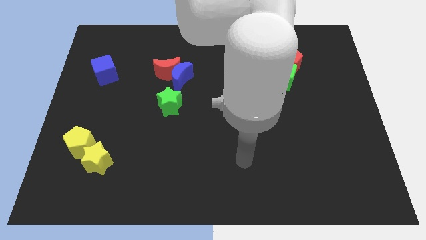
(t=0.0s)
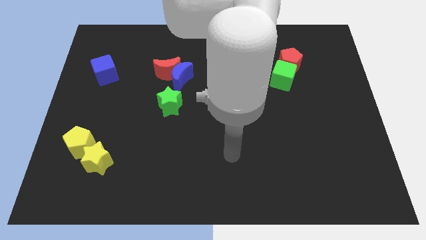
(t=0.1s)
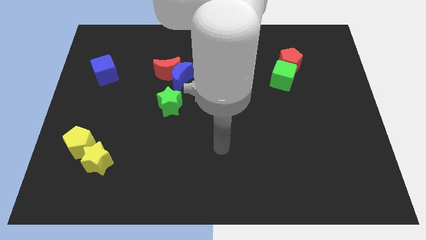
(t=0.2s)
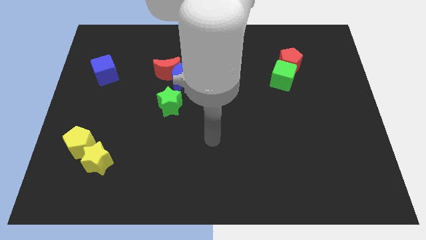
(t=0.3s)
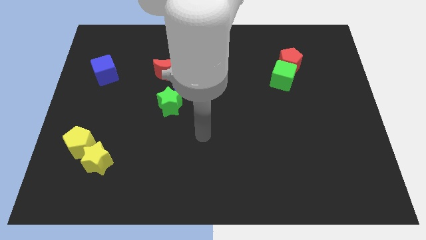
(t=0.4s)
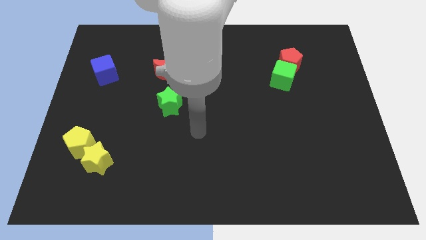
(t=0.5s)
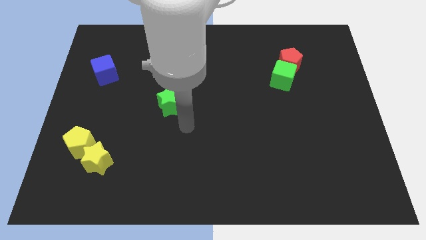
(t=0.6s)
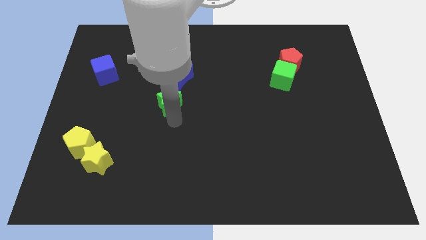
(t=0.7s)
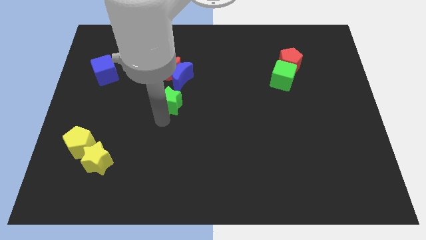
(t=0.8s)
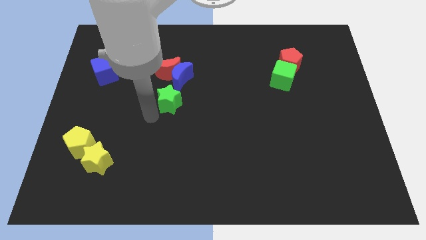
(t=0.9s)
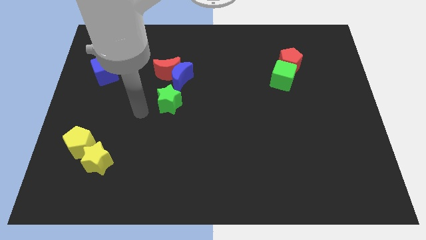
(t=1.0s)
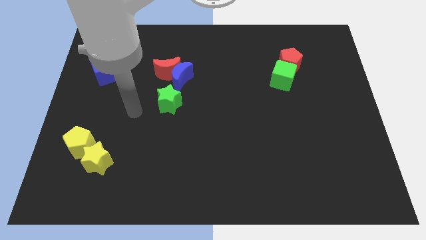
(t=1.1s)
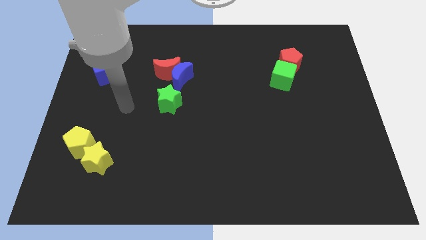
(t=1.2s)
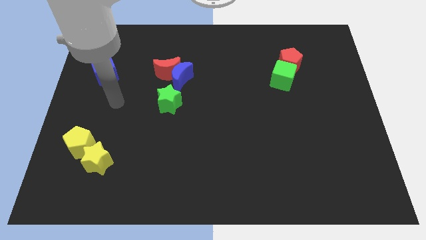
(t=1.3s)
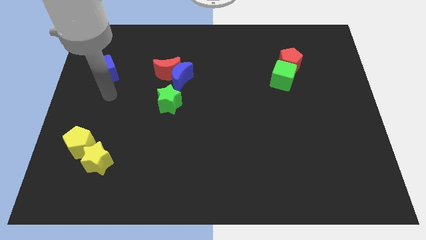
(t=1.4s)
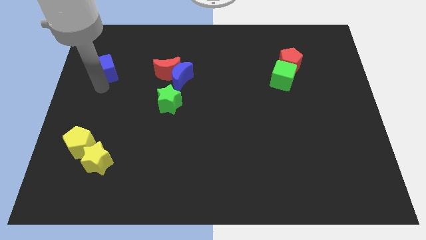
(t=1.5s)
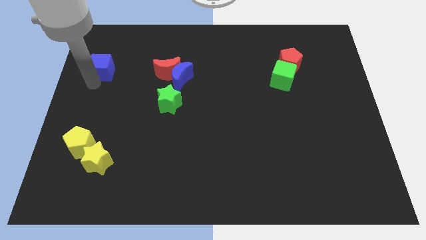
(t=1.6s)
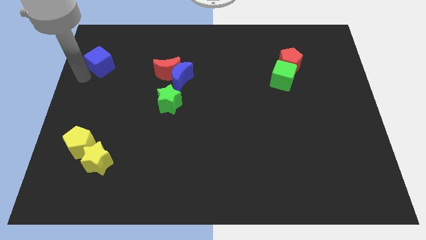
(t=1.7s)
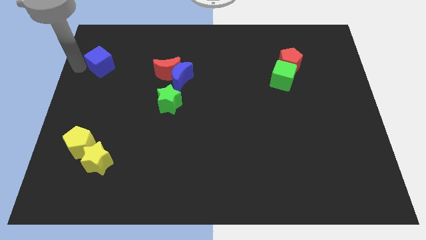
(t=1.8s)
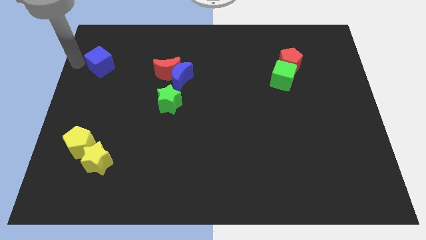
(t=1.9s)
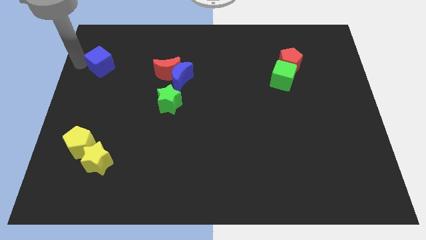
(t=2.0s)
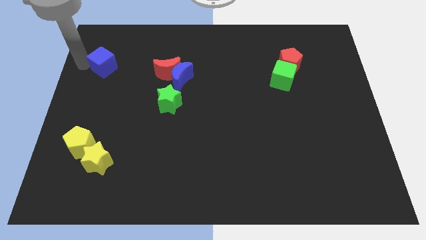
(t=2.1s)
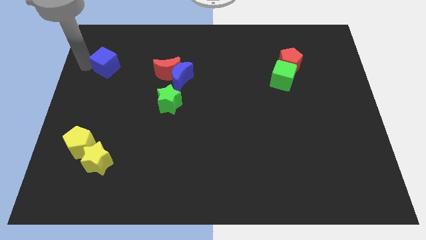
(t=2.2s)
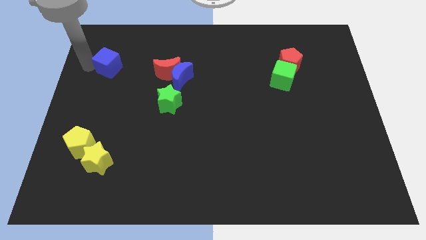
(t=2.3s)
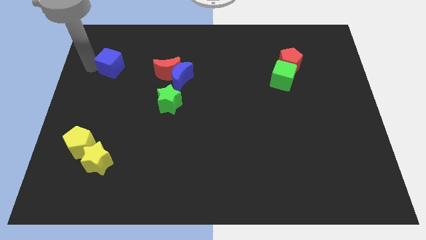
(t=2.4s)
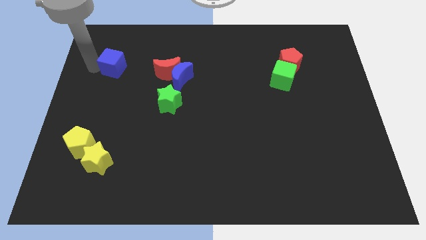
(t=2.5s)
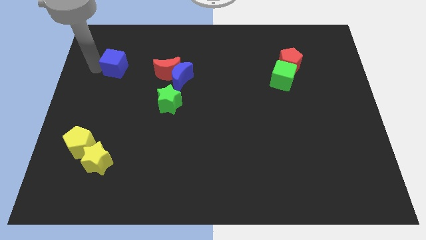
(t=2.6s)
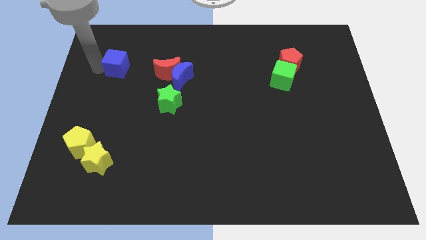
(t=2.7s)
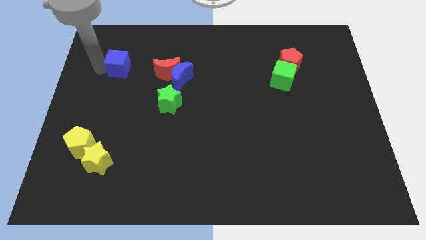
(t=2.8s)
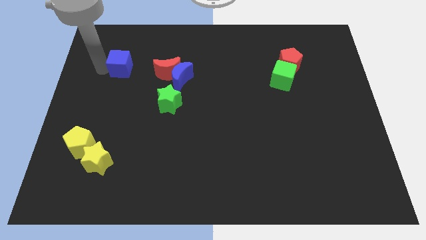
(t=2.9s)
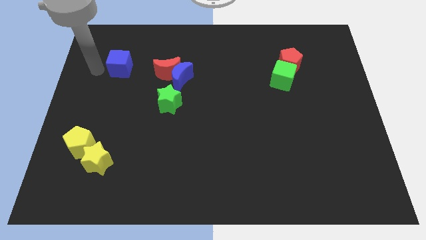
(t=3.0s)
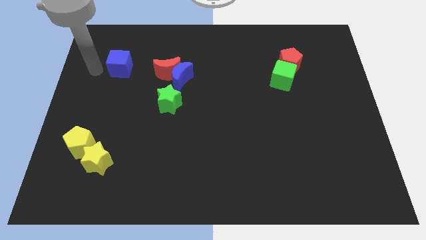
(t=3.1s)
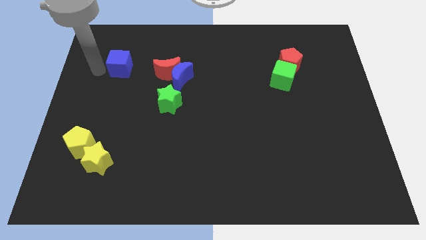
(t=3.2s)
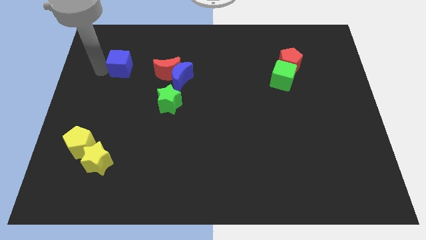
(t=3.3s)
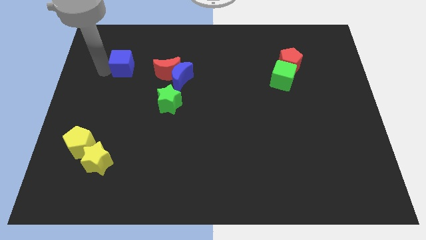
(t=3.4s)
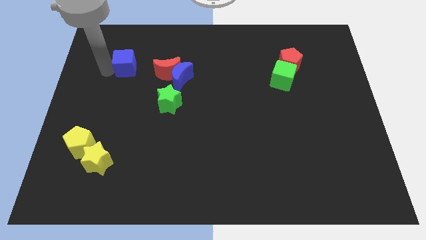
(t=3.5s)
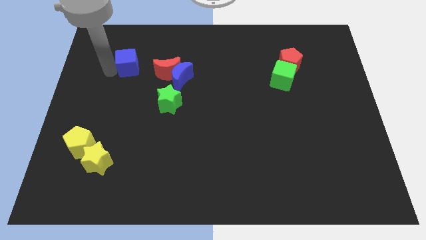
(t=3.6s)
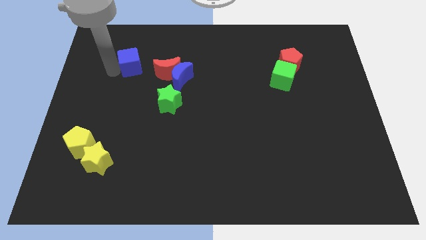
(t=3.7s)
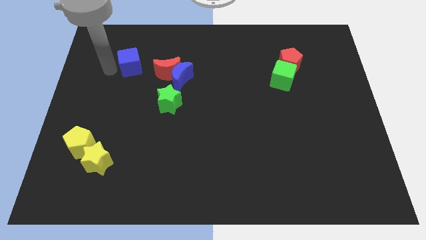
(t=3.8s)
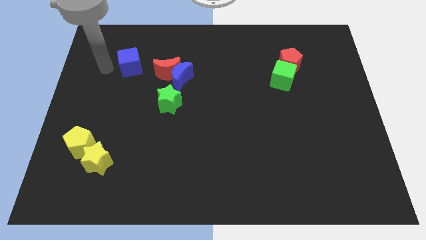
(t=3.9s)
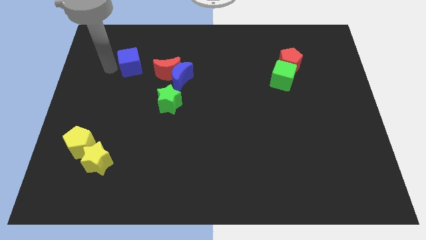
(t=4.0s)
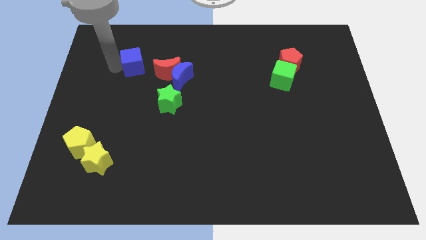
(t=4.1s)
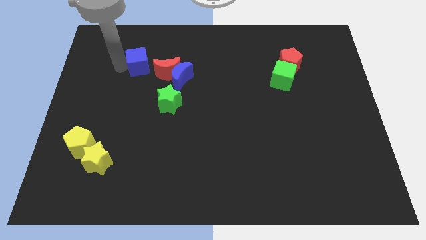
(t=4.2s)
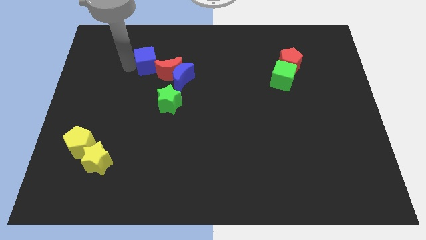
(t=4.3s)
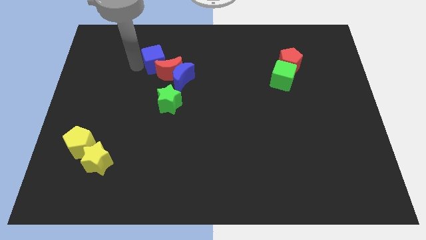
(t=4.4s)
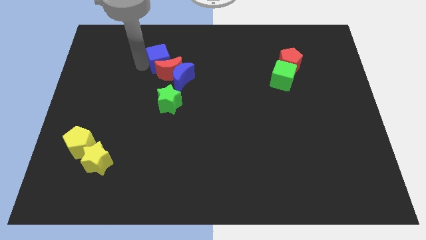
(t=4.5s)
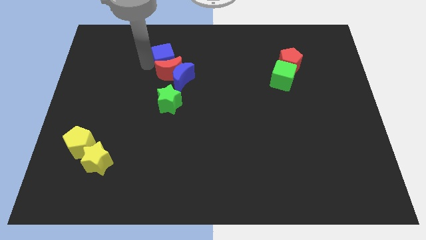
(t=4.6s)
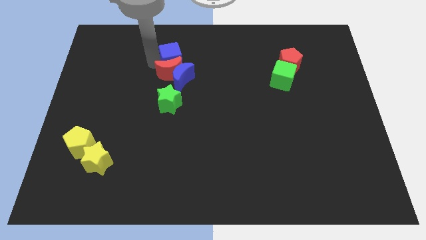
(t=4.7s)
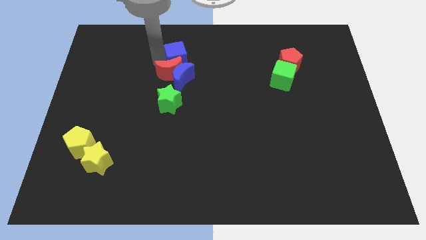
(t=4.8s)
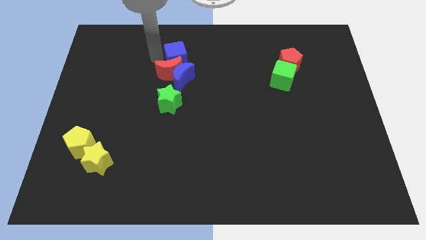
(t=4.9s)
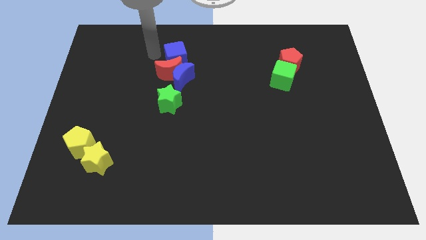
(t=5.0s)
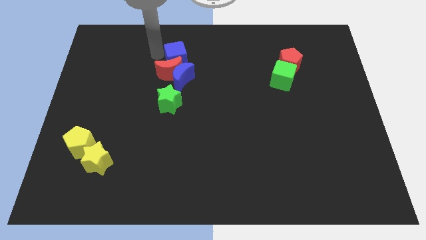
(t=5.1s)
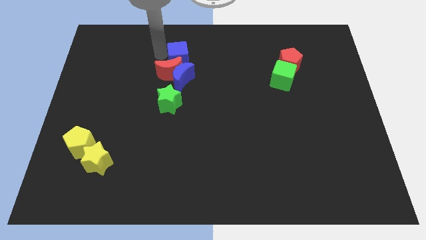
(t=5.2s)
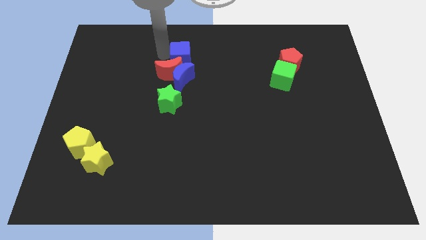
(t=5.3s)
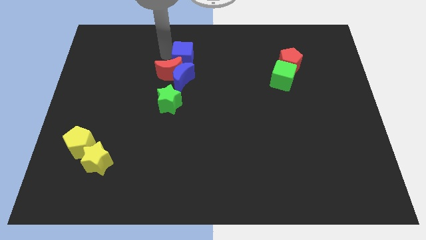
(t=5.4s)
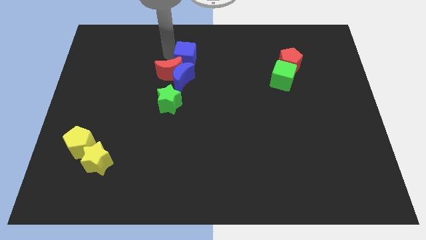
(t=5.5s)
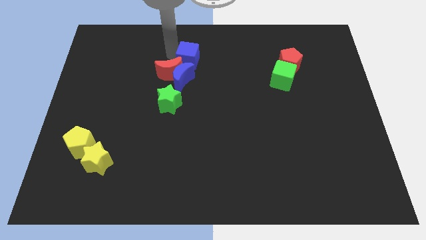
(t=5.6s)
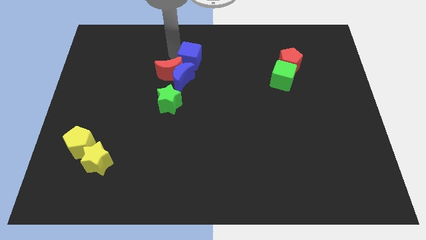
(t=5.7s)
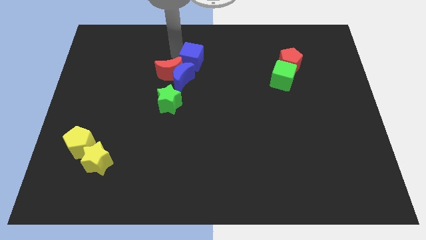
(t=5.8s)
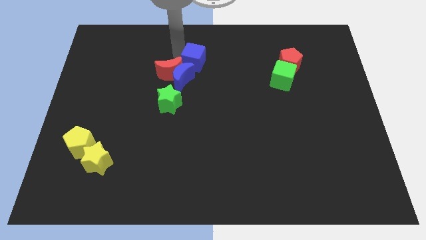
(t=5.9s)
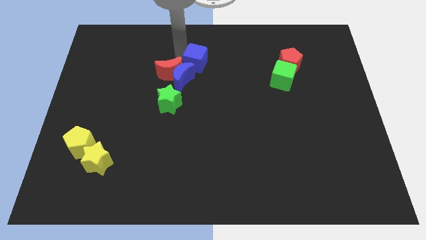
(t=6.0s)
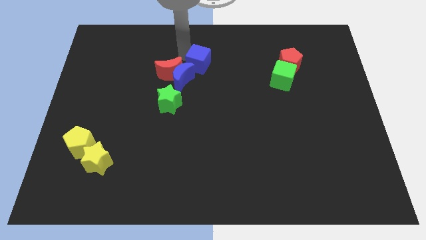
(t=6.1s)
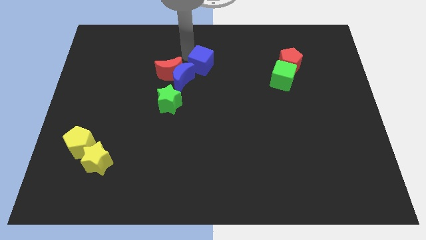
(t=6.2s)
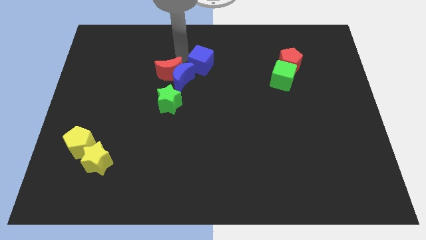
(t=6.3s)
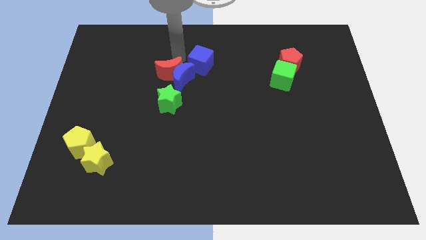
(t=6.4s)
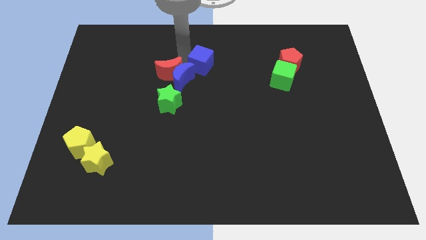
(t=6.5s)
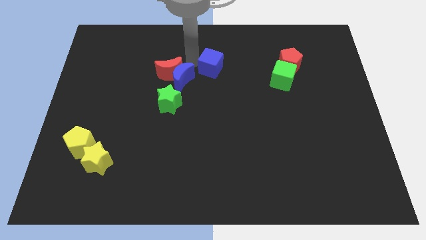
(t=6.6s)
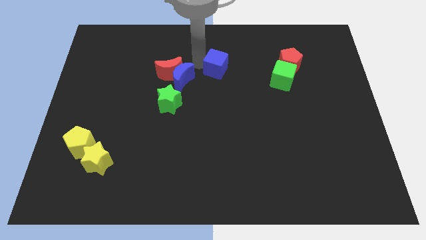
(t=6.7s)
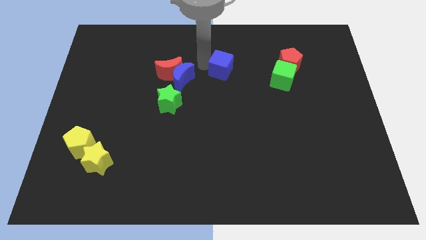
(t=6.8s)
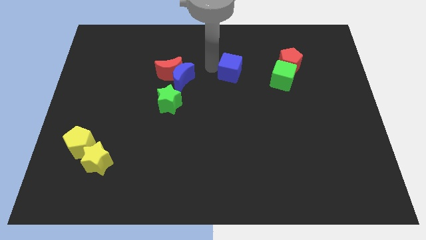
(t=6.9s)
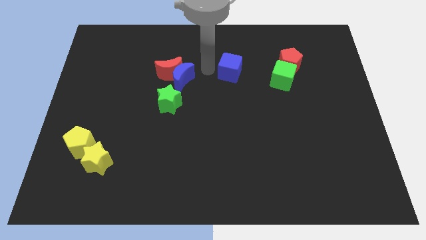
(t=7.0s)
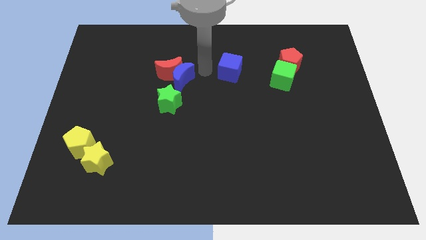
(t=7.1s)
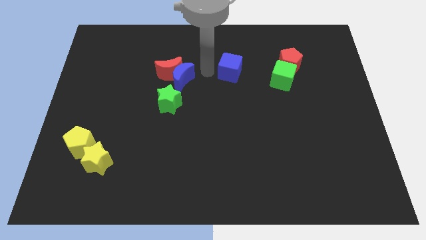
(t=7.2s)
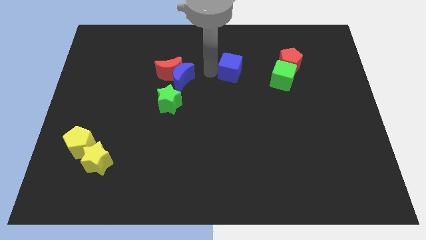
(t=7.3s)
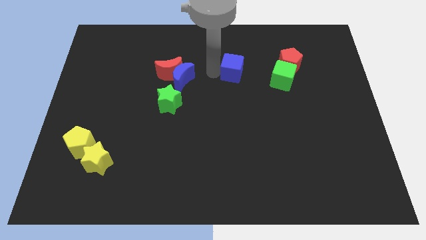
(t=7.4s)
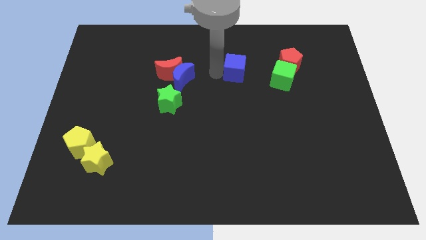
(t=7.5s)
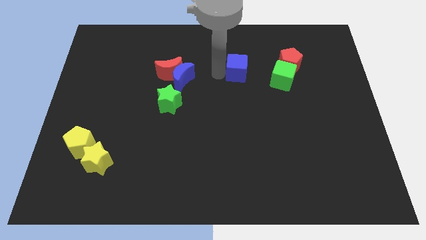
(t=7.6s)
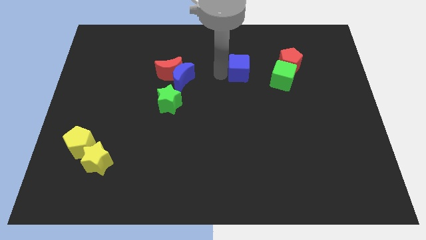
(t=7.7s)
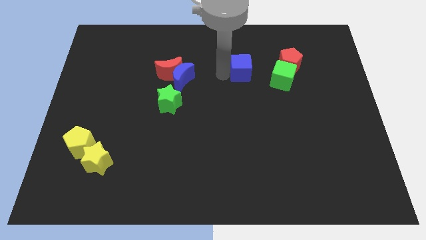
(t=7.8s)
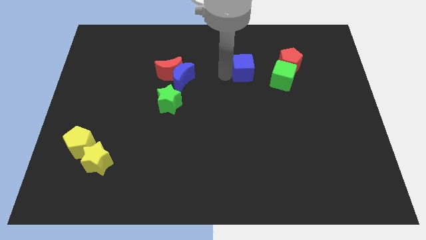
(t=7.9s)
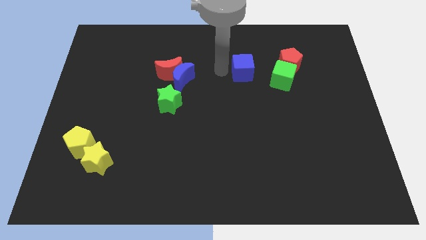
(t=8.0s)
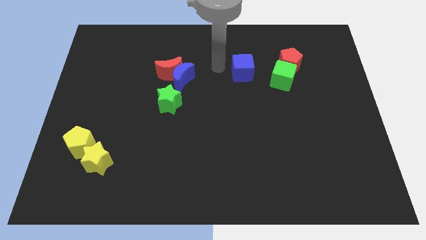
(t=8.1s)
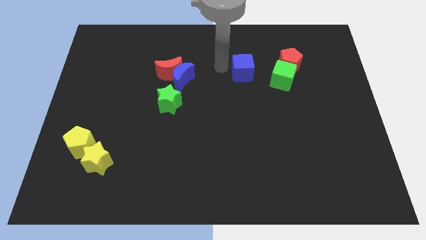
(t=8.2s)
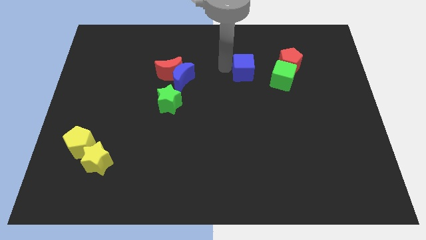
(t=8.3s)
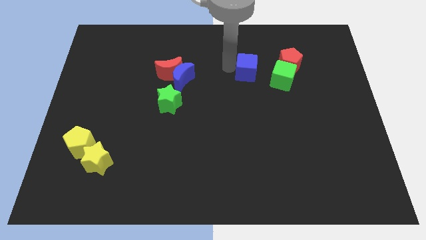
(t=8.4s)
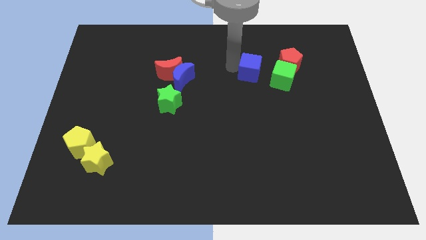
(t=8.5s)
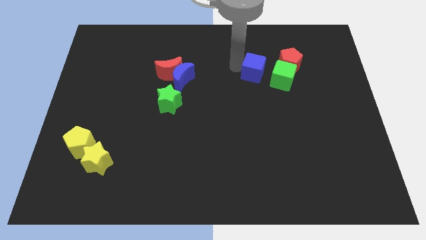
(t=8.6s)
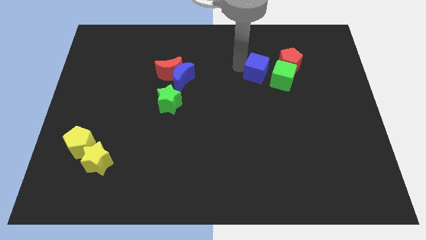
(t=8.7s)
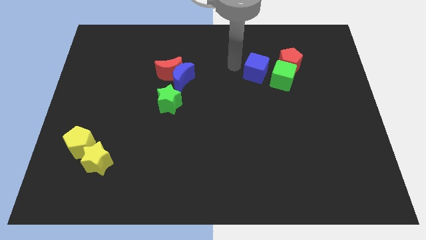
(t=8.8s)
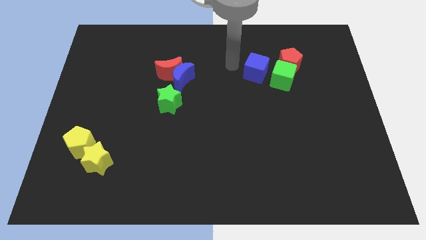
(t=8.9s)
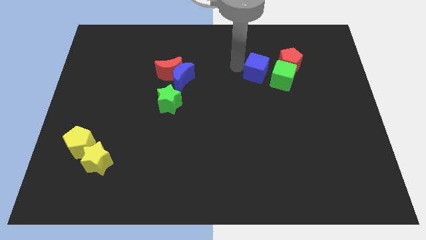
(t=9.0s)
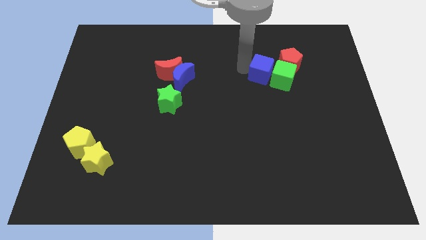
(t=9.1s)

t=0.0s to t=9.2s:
slide the blue cube to the green cube
